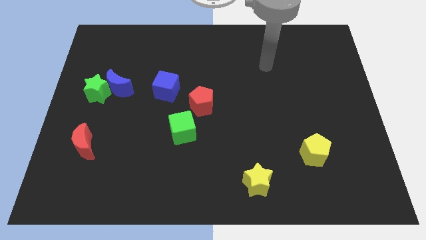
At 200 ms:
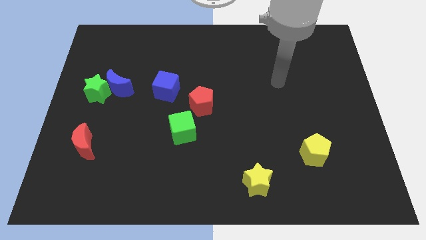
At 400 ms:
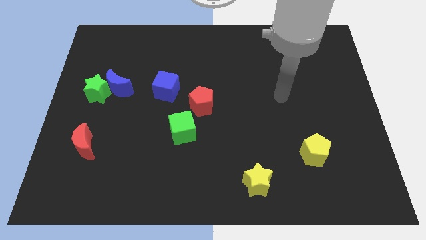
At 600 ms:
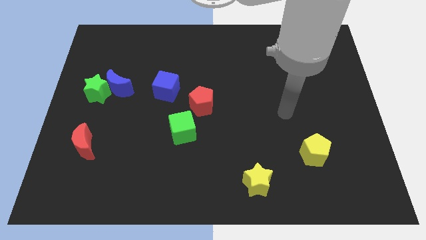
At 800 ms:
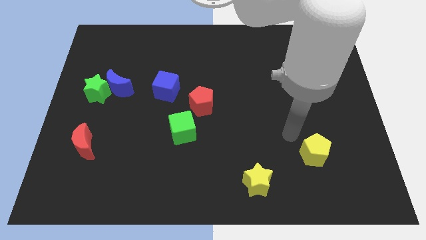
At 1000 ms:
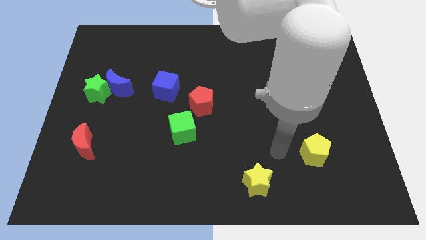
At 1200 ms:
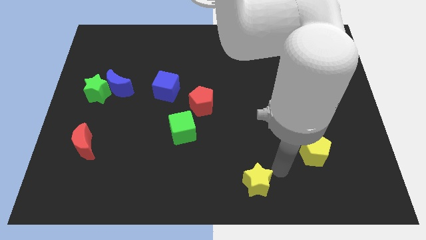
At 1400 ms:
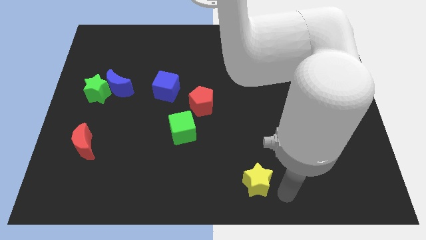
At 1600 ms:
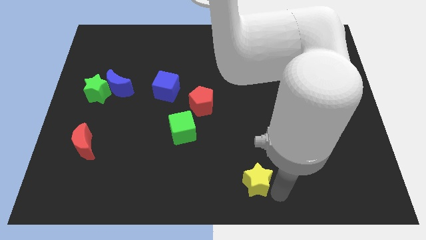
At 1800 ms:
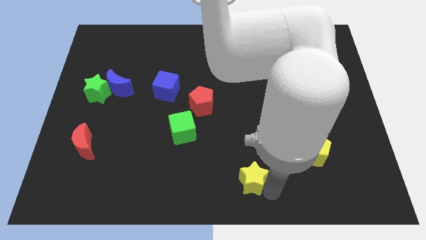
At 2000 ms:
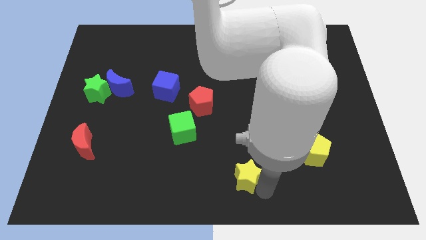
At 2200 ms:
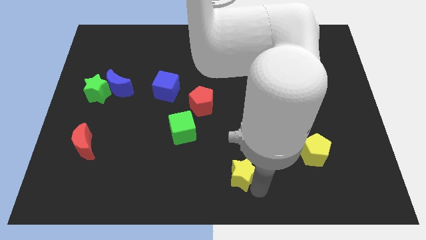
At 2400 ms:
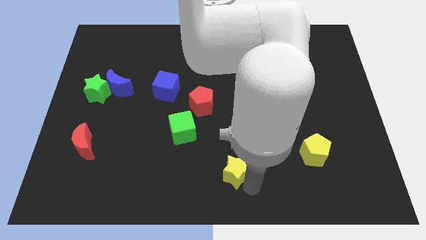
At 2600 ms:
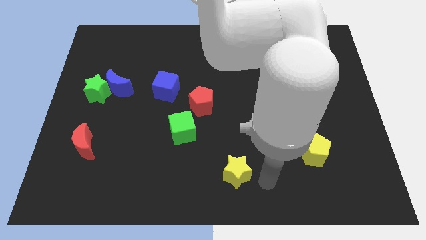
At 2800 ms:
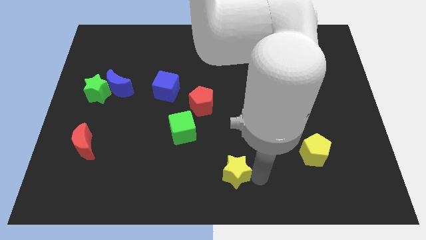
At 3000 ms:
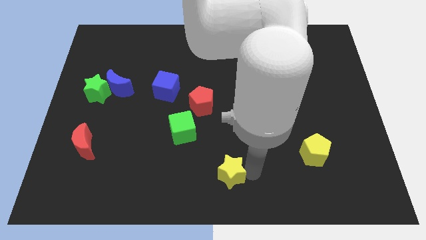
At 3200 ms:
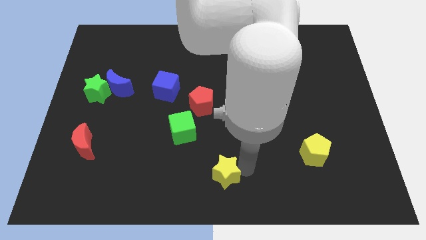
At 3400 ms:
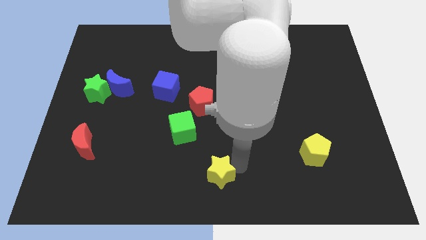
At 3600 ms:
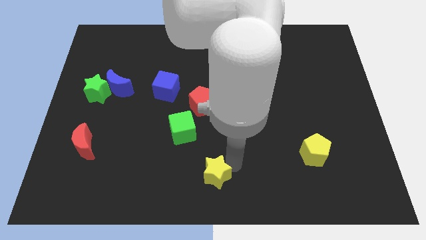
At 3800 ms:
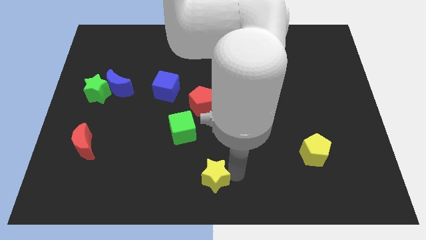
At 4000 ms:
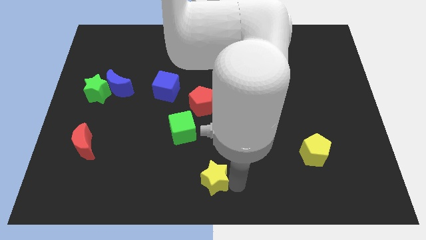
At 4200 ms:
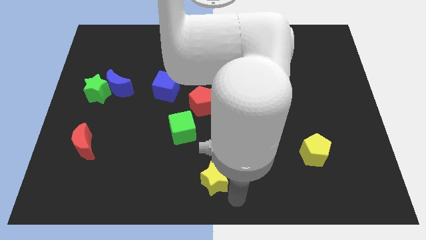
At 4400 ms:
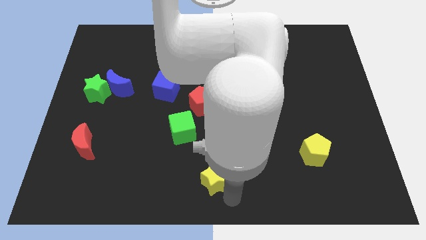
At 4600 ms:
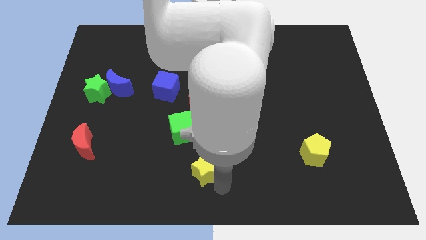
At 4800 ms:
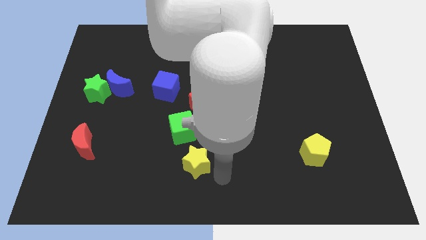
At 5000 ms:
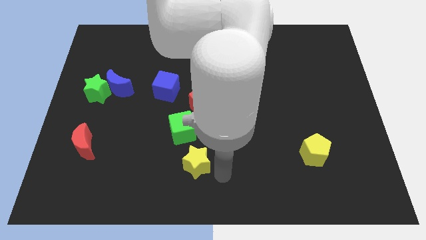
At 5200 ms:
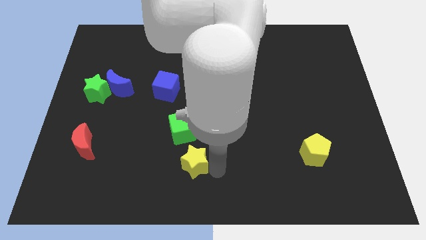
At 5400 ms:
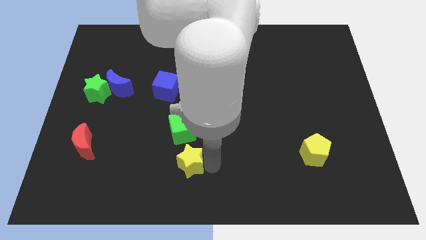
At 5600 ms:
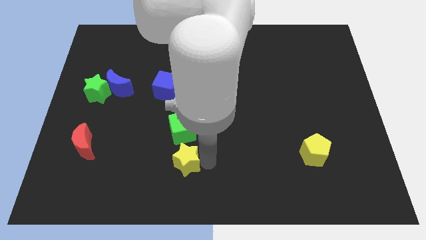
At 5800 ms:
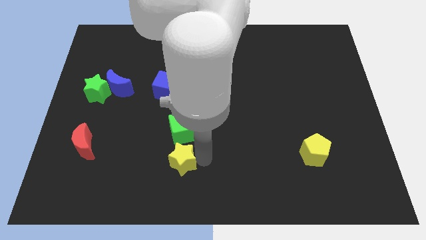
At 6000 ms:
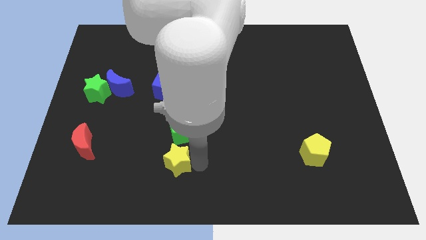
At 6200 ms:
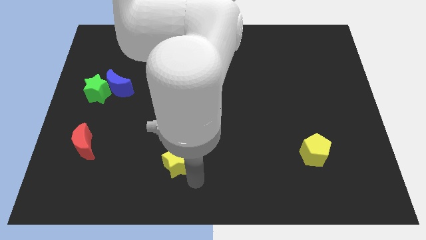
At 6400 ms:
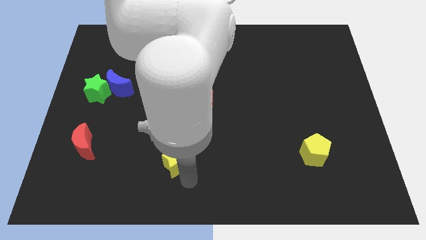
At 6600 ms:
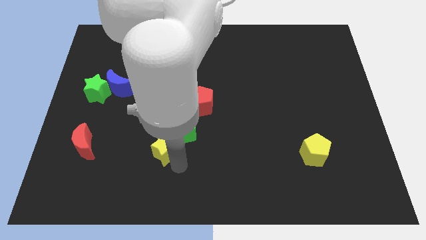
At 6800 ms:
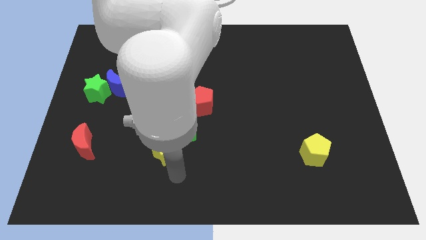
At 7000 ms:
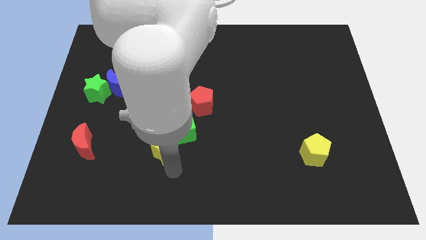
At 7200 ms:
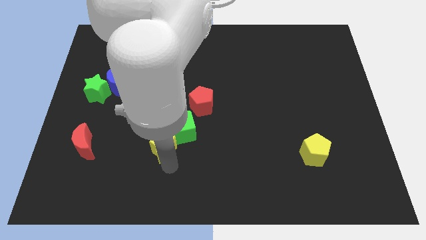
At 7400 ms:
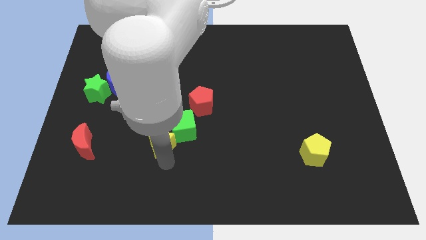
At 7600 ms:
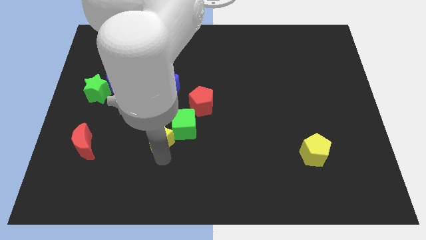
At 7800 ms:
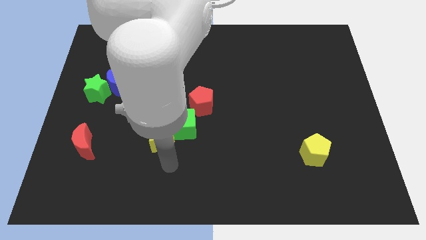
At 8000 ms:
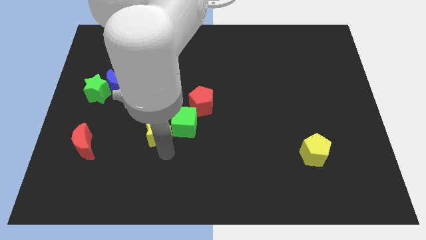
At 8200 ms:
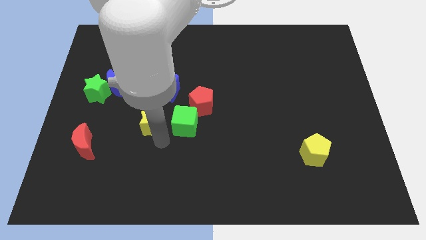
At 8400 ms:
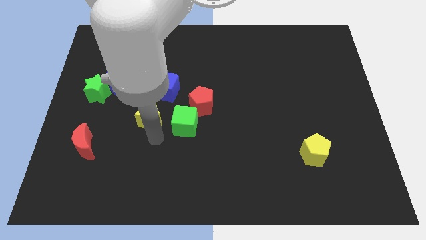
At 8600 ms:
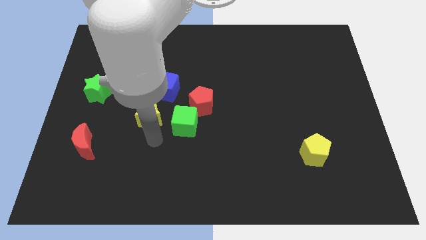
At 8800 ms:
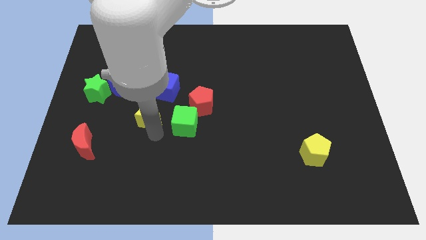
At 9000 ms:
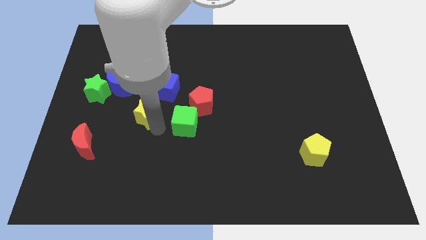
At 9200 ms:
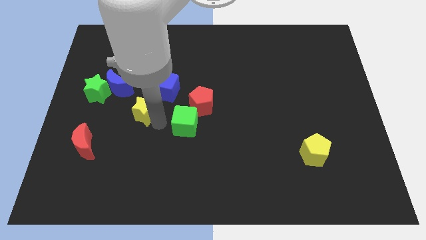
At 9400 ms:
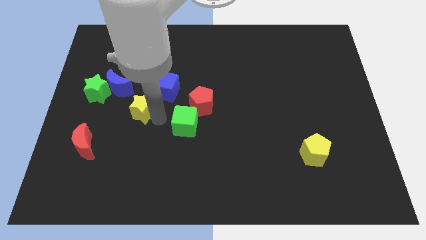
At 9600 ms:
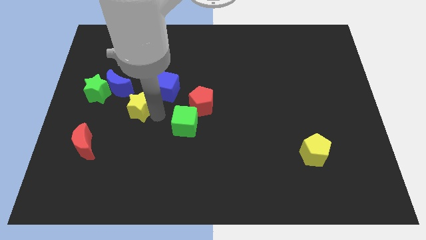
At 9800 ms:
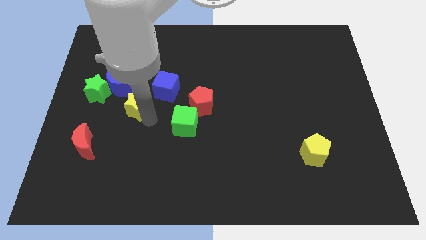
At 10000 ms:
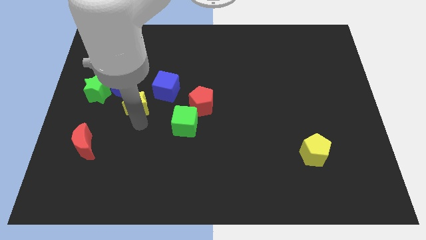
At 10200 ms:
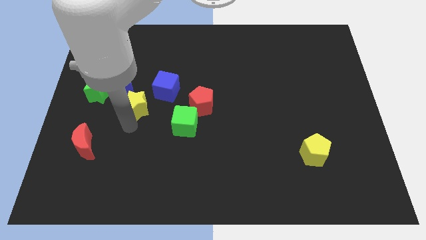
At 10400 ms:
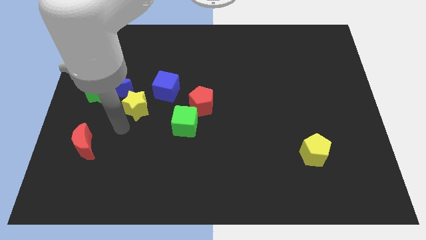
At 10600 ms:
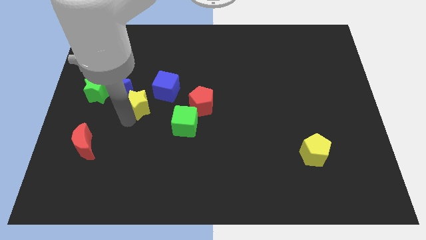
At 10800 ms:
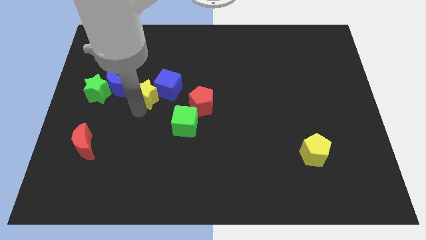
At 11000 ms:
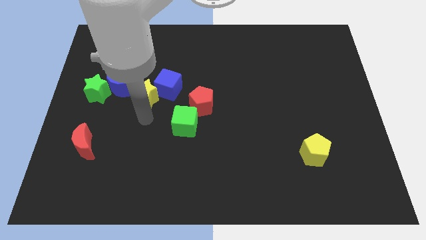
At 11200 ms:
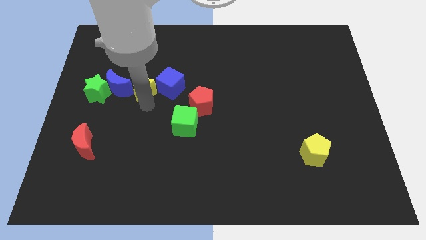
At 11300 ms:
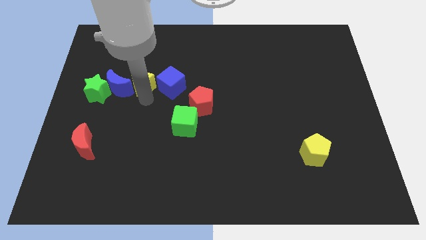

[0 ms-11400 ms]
move the yellow star diagonally up and to the left of the blue cube

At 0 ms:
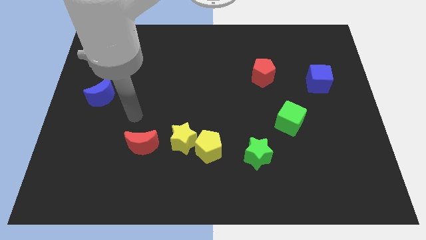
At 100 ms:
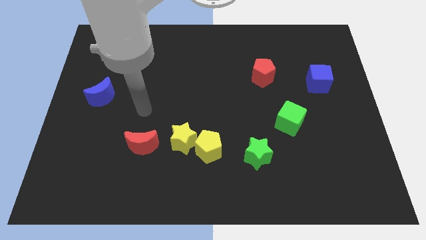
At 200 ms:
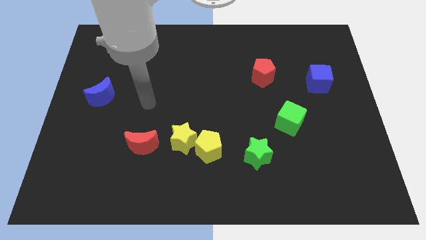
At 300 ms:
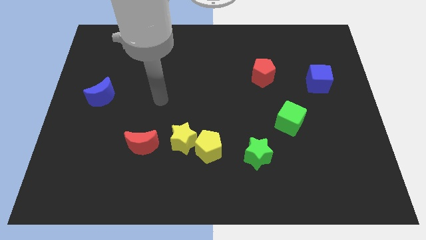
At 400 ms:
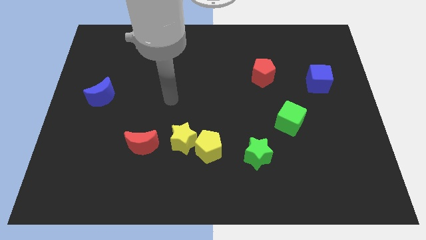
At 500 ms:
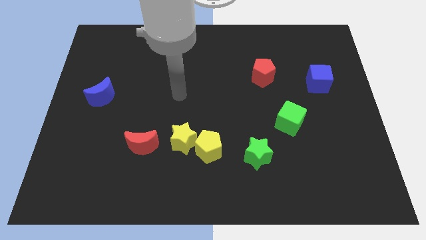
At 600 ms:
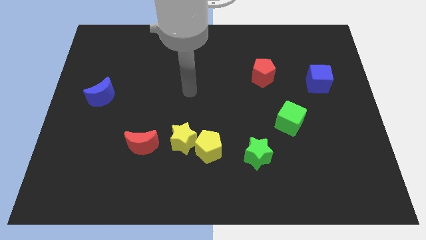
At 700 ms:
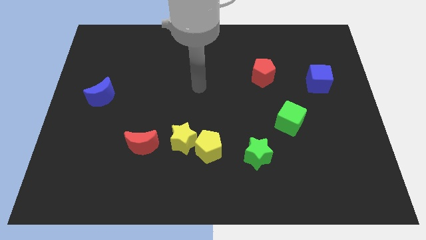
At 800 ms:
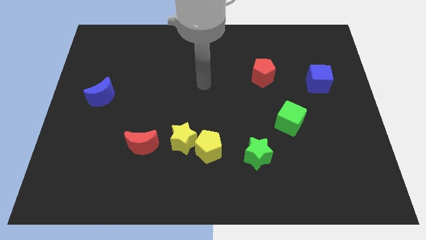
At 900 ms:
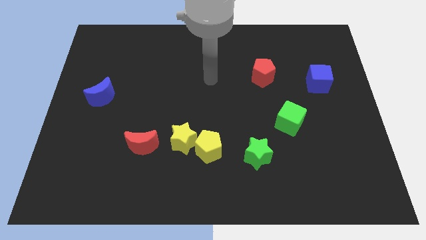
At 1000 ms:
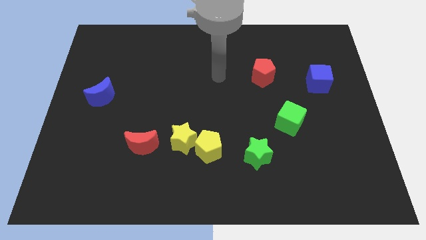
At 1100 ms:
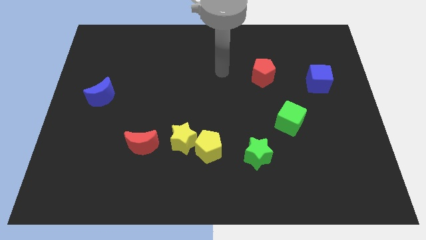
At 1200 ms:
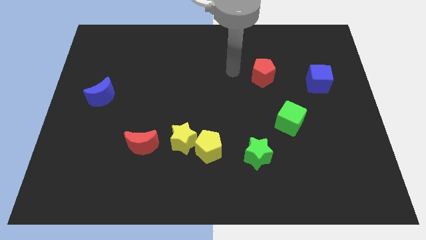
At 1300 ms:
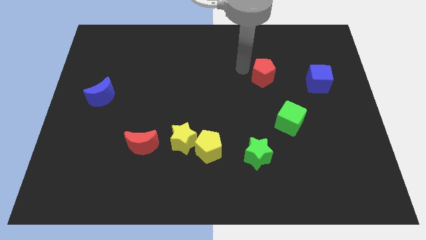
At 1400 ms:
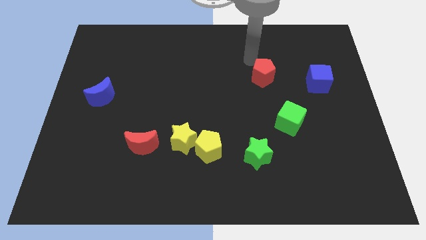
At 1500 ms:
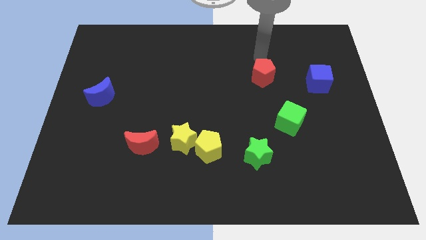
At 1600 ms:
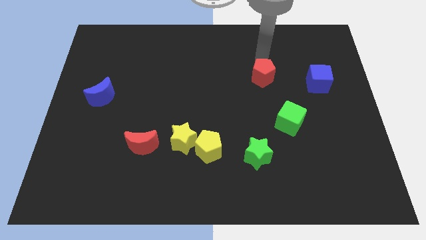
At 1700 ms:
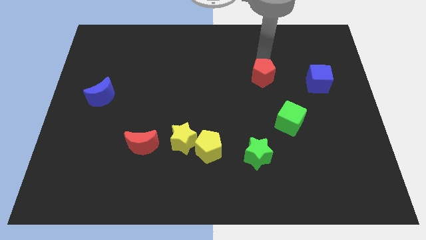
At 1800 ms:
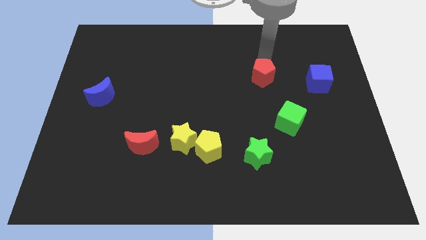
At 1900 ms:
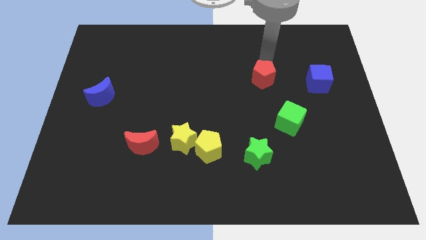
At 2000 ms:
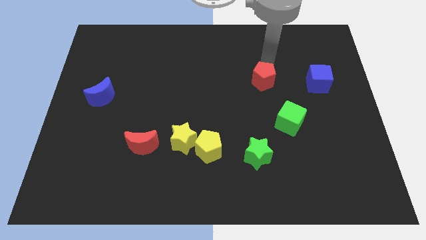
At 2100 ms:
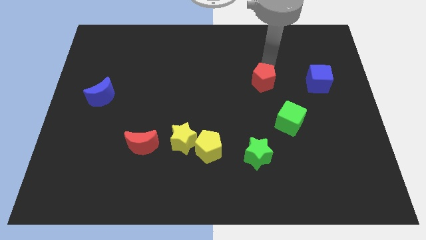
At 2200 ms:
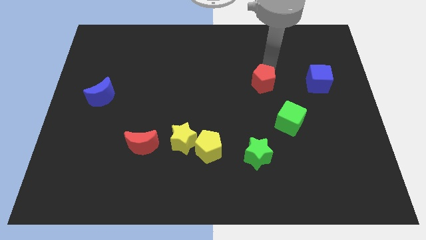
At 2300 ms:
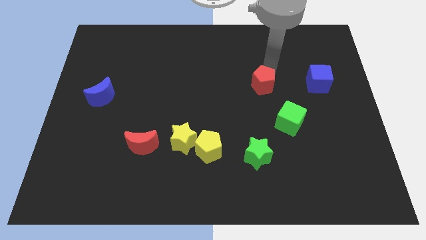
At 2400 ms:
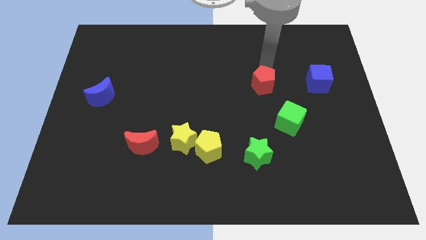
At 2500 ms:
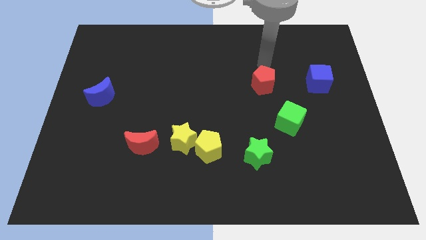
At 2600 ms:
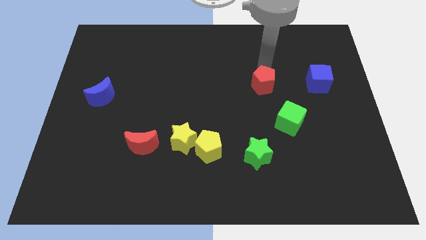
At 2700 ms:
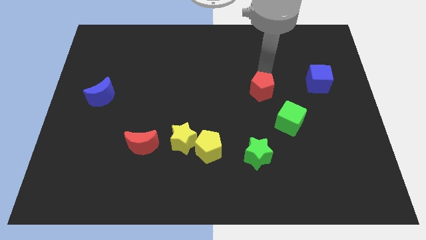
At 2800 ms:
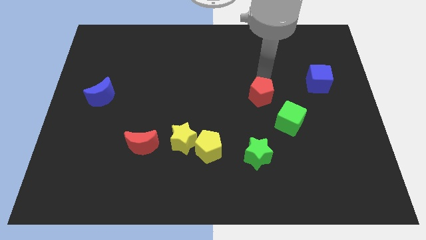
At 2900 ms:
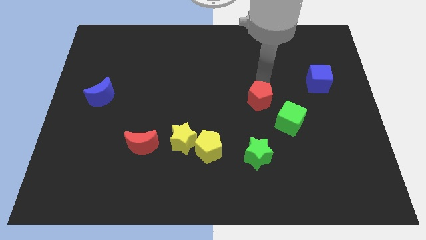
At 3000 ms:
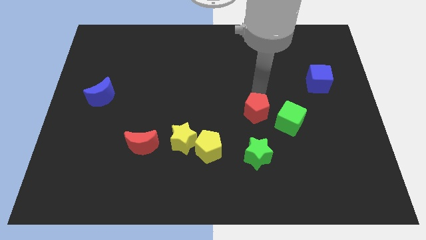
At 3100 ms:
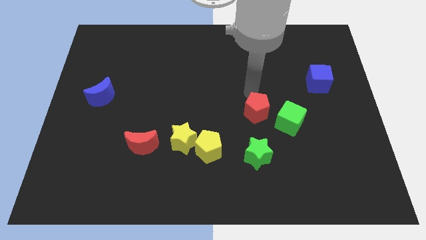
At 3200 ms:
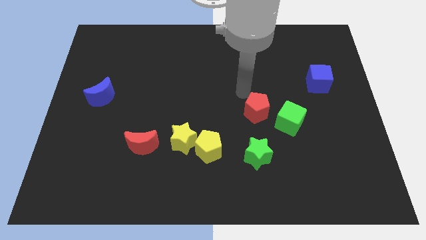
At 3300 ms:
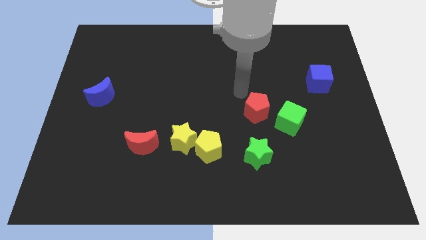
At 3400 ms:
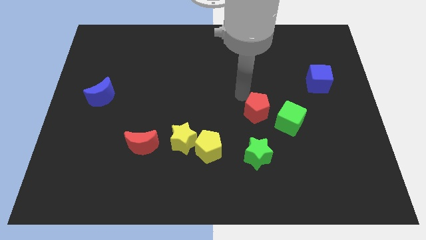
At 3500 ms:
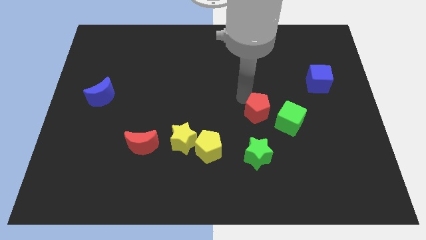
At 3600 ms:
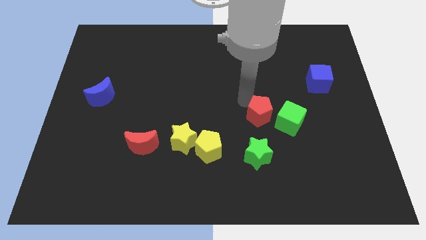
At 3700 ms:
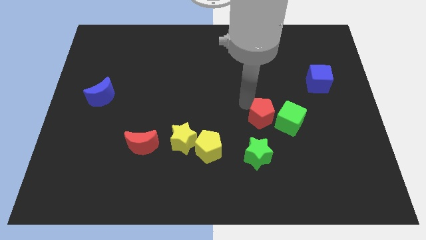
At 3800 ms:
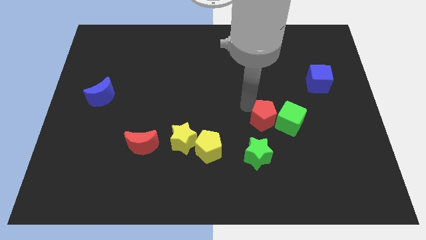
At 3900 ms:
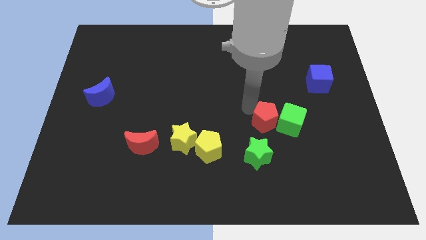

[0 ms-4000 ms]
move the red pentagon to the top right of the green star
